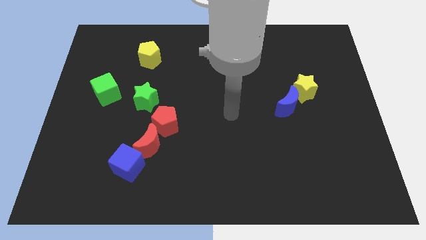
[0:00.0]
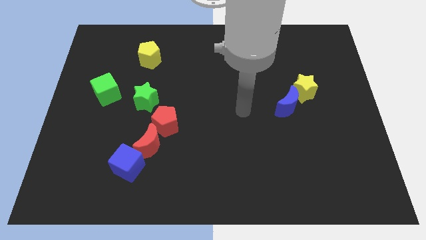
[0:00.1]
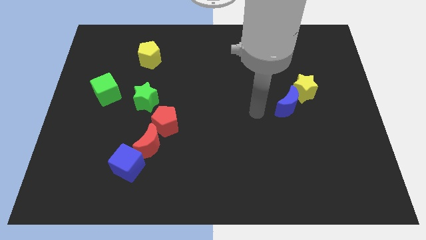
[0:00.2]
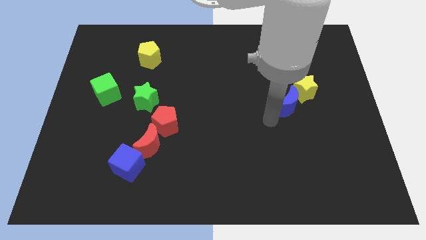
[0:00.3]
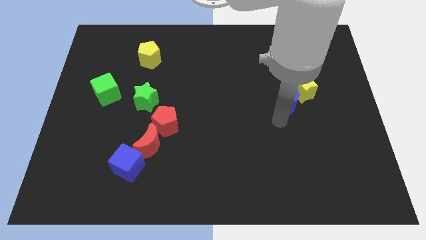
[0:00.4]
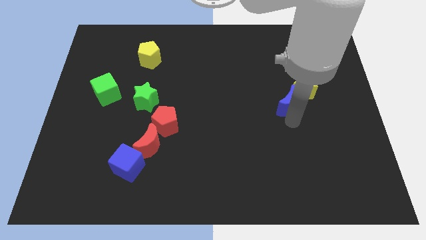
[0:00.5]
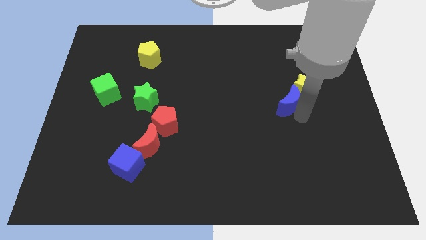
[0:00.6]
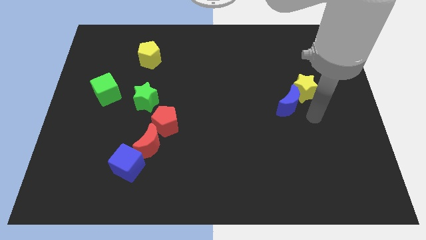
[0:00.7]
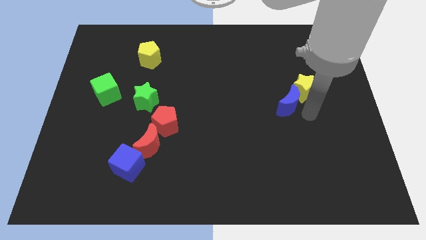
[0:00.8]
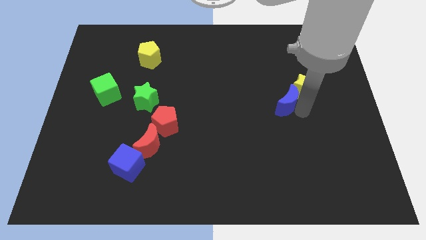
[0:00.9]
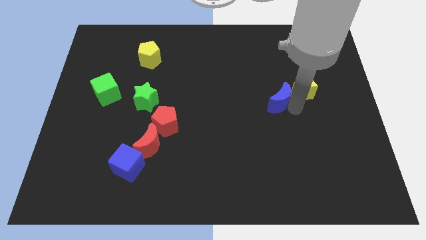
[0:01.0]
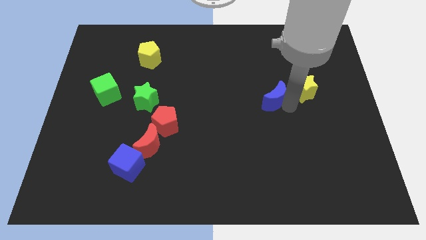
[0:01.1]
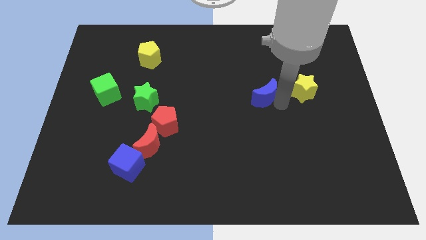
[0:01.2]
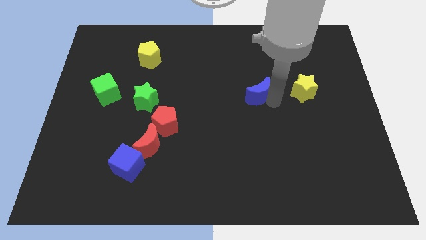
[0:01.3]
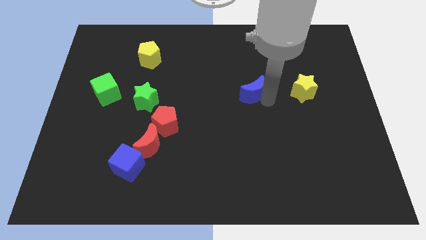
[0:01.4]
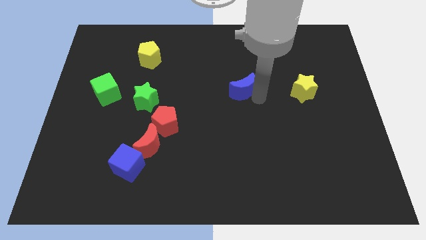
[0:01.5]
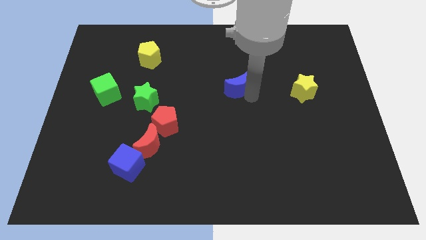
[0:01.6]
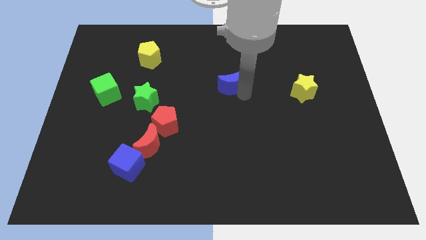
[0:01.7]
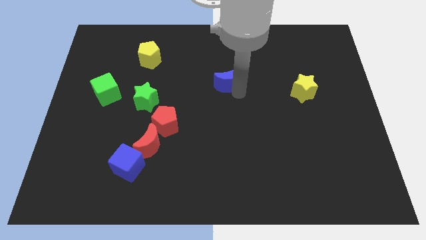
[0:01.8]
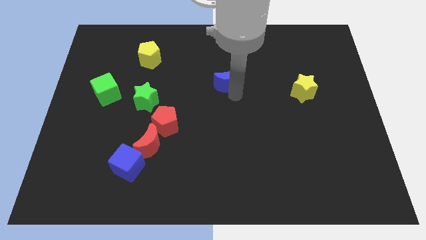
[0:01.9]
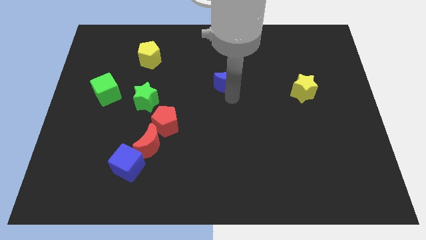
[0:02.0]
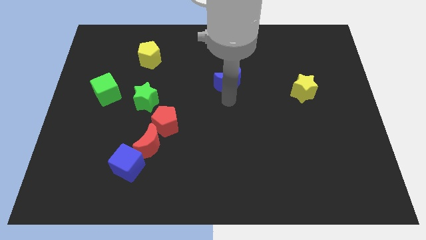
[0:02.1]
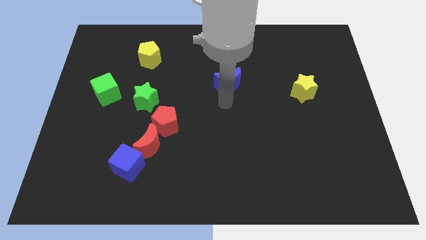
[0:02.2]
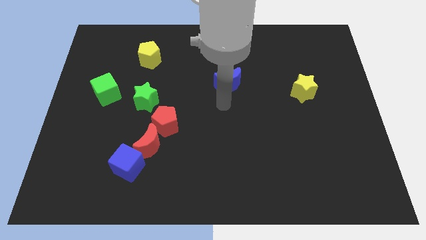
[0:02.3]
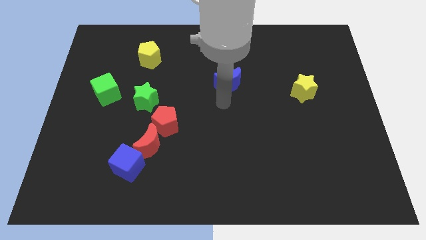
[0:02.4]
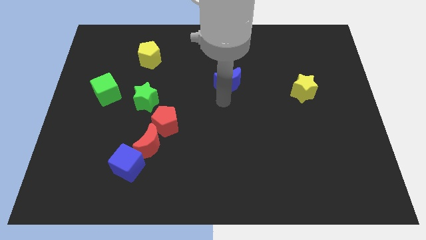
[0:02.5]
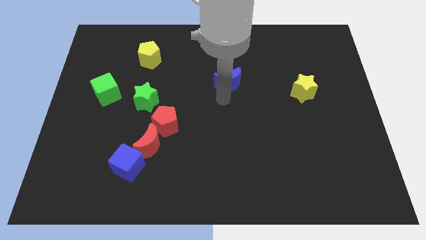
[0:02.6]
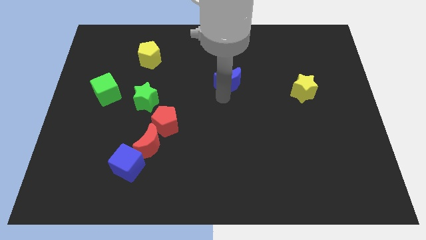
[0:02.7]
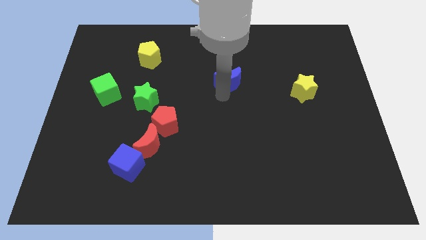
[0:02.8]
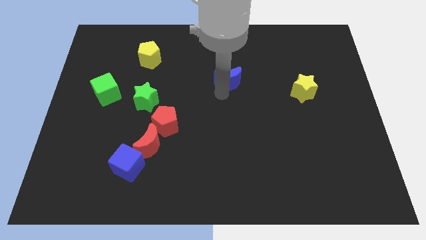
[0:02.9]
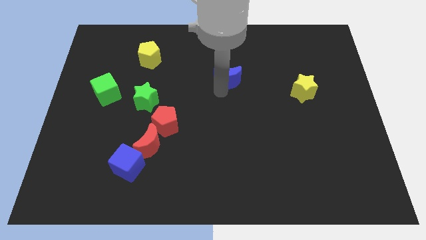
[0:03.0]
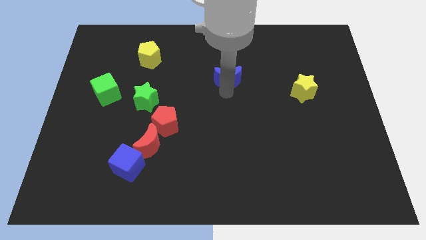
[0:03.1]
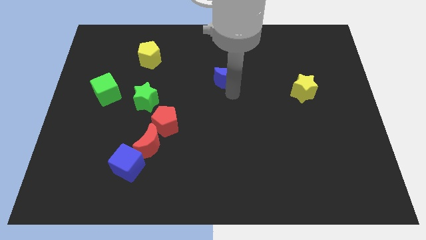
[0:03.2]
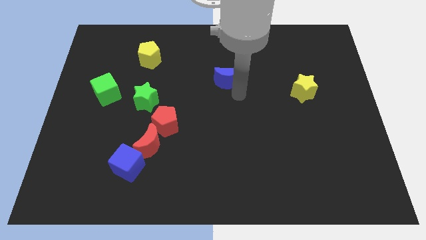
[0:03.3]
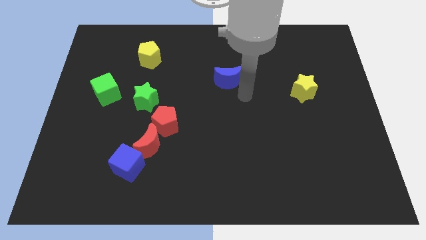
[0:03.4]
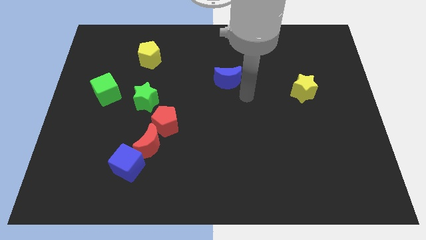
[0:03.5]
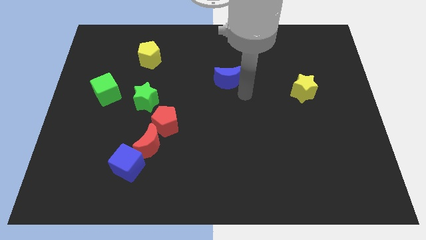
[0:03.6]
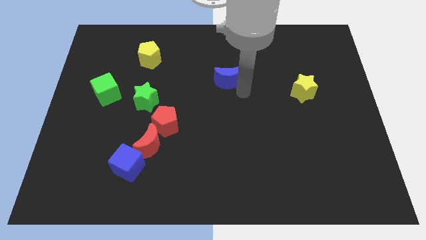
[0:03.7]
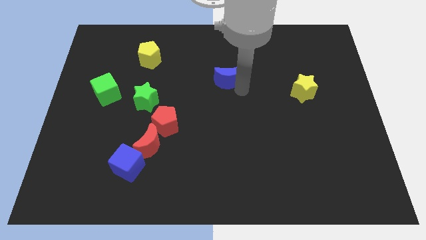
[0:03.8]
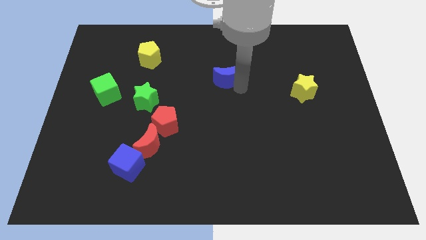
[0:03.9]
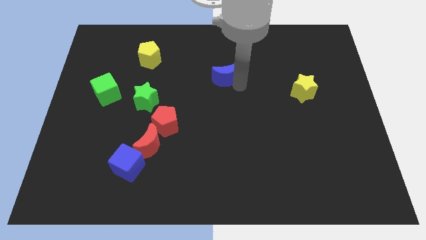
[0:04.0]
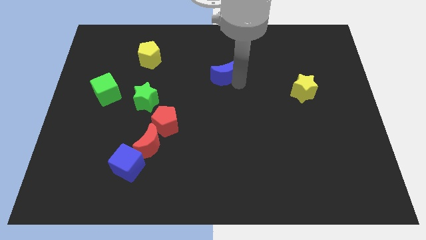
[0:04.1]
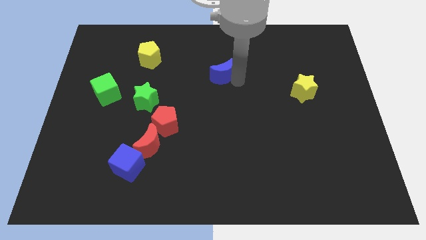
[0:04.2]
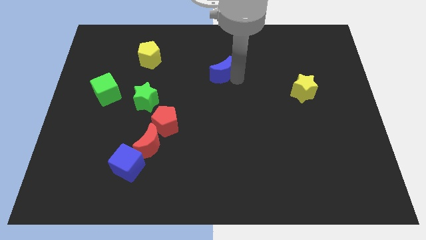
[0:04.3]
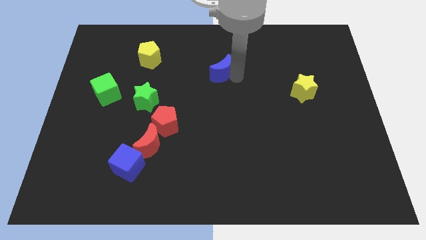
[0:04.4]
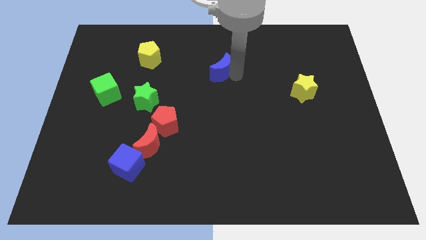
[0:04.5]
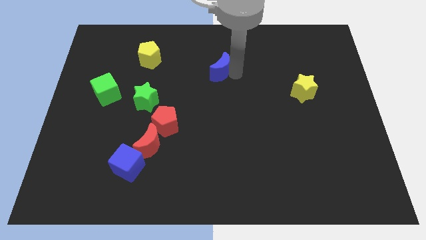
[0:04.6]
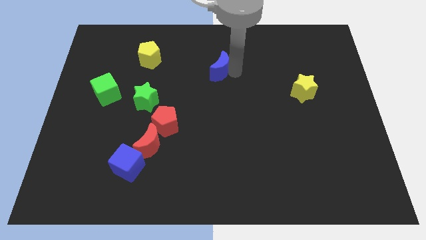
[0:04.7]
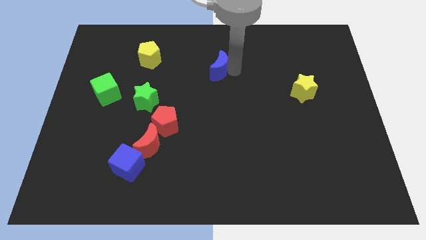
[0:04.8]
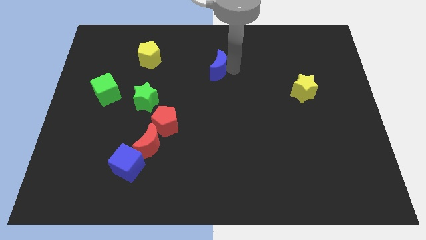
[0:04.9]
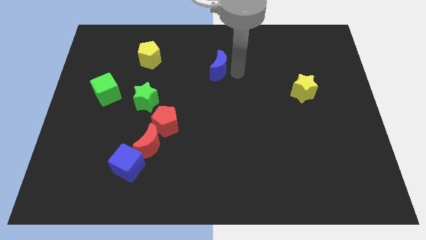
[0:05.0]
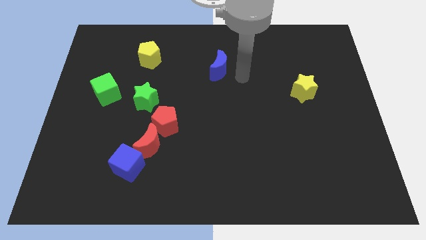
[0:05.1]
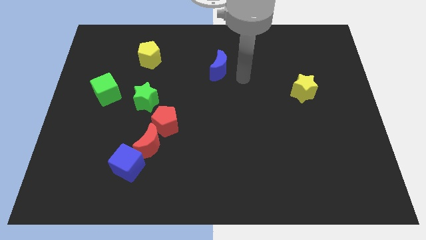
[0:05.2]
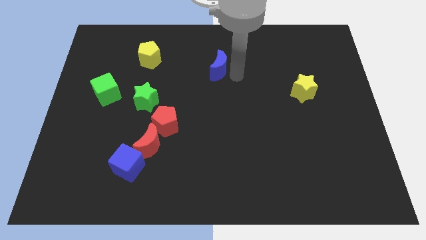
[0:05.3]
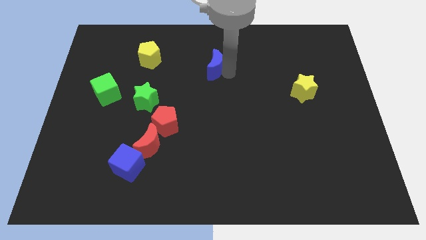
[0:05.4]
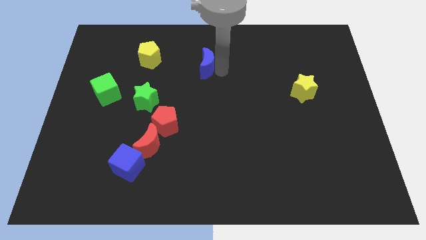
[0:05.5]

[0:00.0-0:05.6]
slide the blue moon to the right of the yellow pentagon

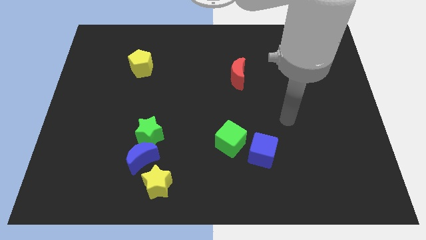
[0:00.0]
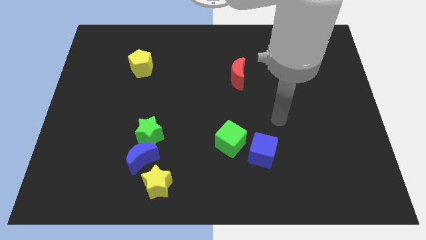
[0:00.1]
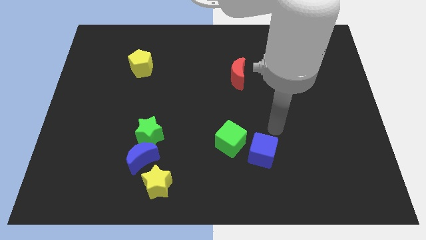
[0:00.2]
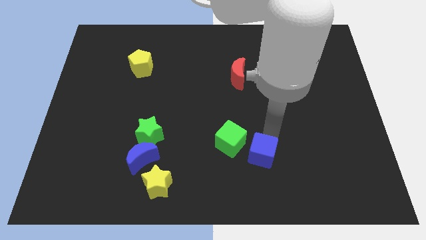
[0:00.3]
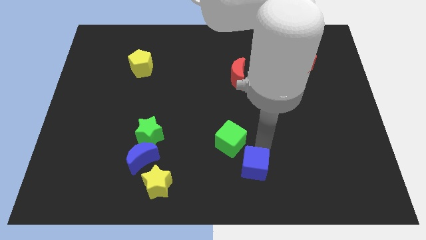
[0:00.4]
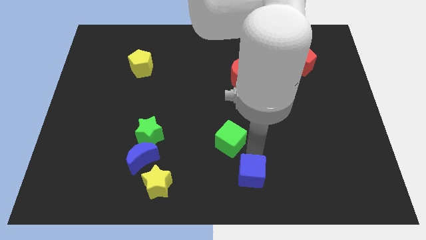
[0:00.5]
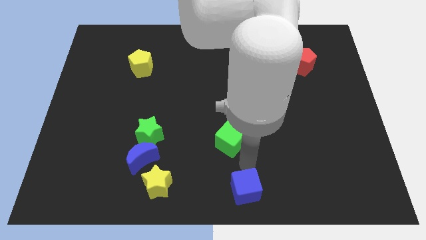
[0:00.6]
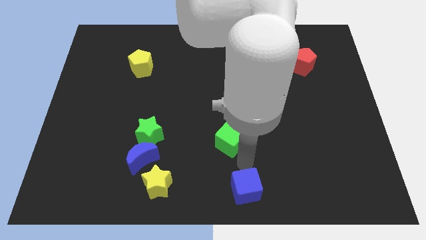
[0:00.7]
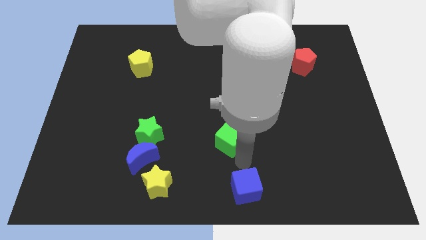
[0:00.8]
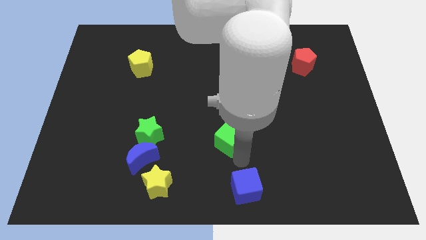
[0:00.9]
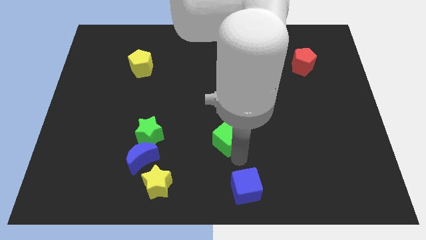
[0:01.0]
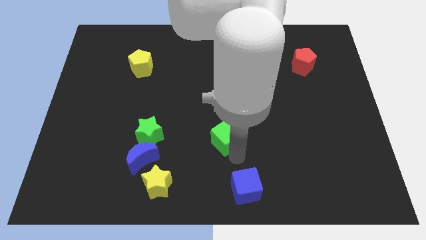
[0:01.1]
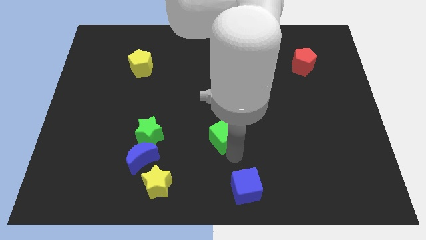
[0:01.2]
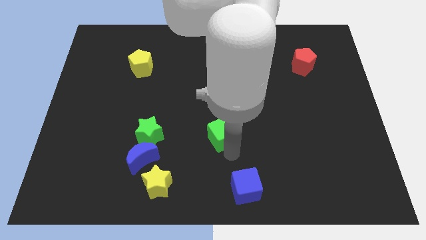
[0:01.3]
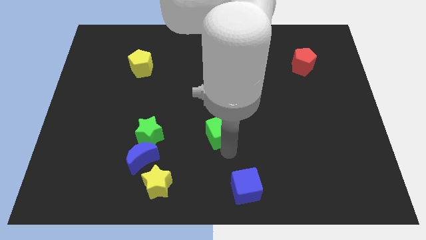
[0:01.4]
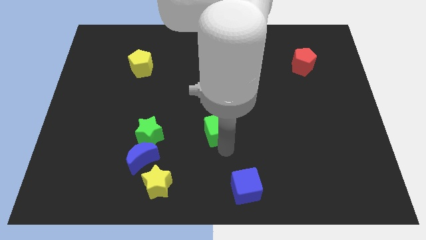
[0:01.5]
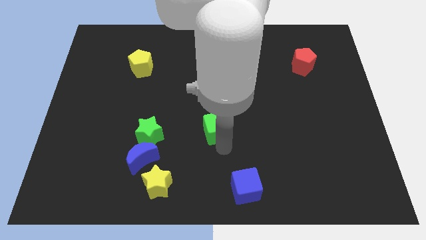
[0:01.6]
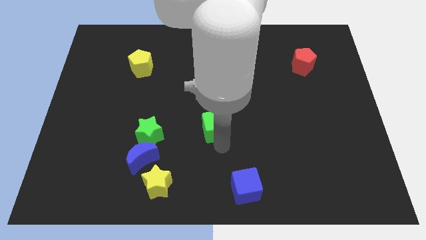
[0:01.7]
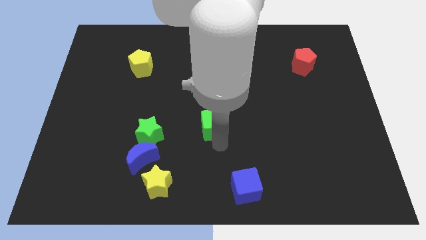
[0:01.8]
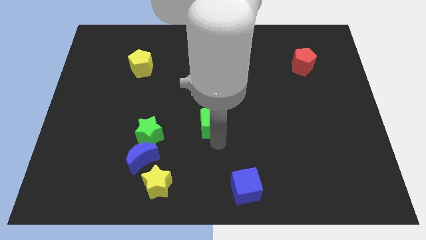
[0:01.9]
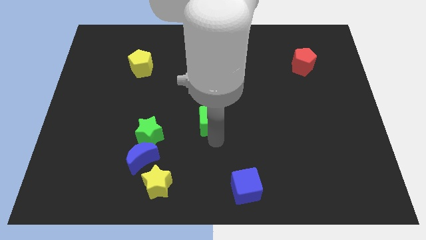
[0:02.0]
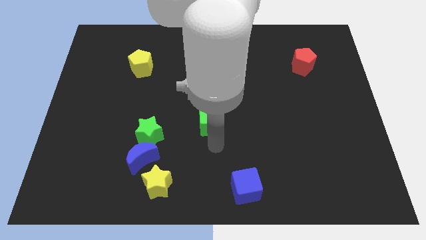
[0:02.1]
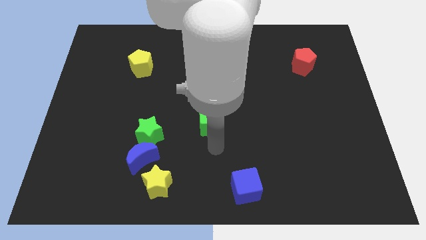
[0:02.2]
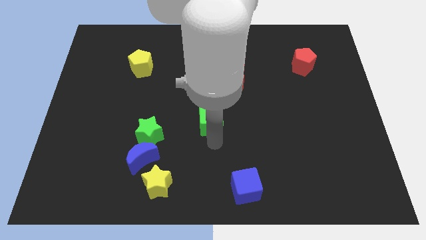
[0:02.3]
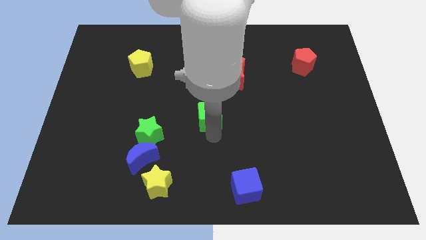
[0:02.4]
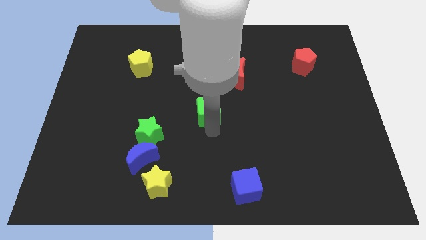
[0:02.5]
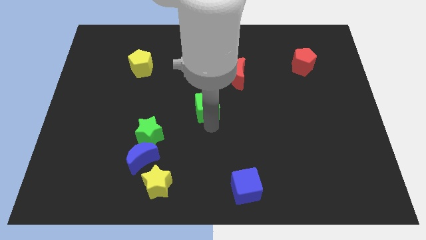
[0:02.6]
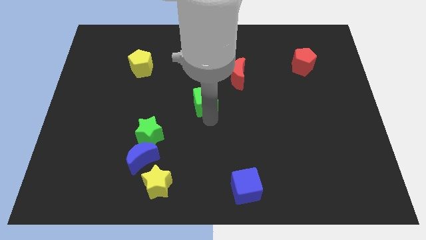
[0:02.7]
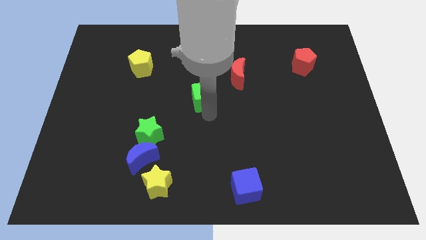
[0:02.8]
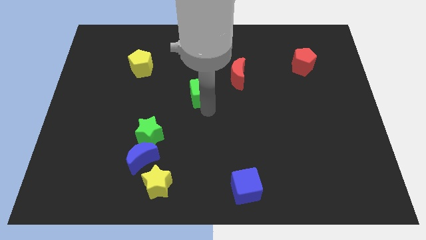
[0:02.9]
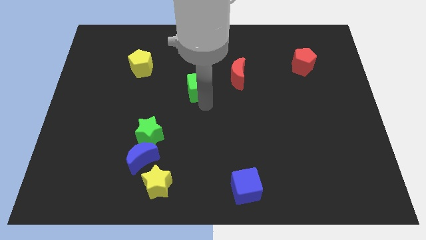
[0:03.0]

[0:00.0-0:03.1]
push the green cube to the left of the red moon
